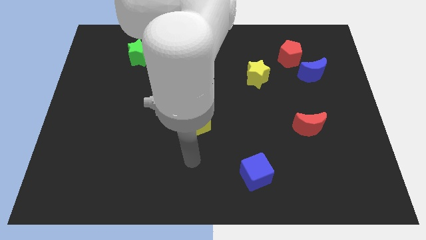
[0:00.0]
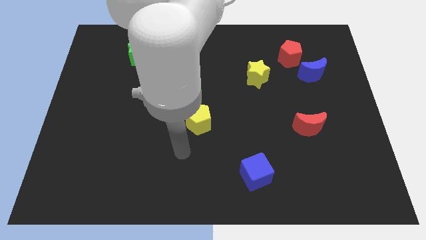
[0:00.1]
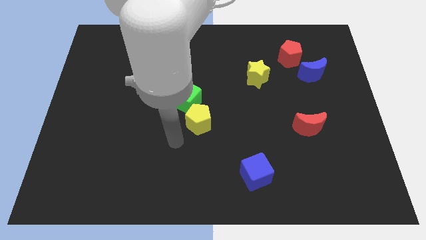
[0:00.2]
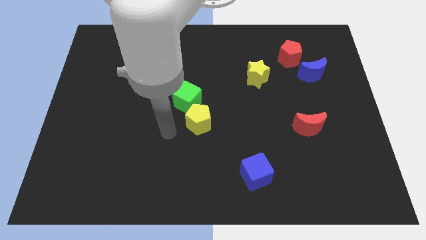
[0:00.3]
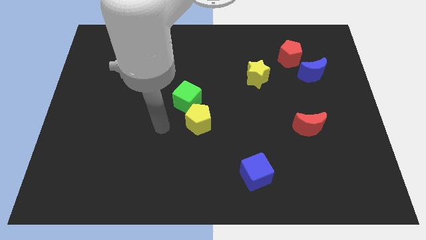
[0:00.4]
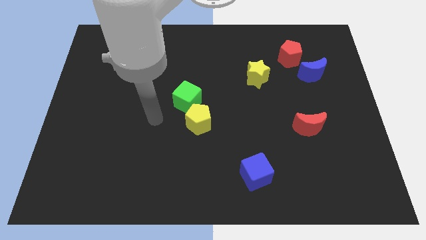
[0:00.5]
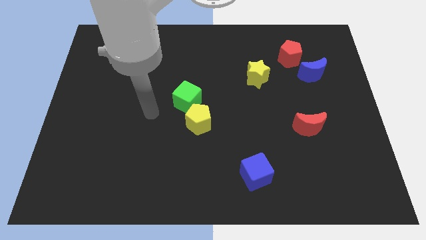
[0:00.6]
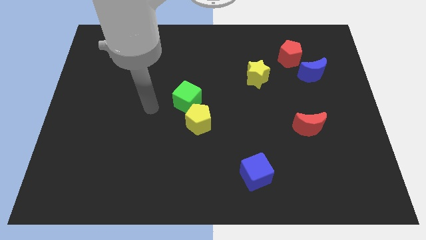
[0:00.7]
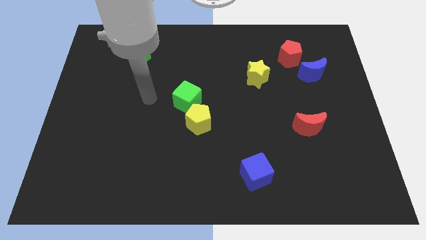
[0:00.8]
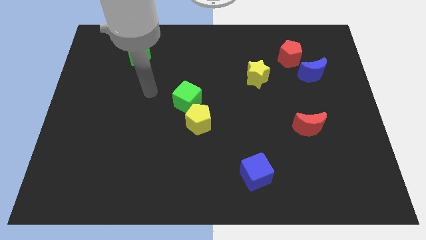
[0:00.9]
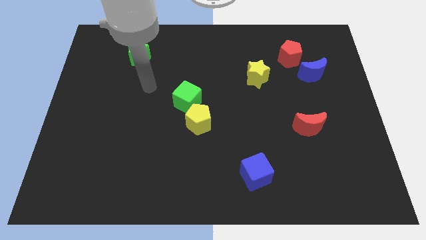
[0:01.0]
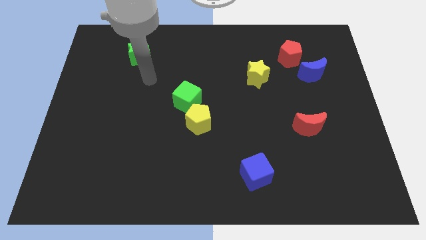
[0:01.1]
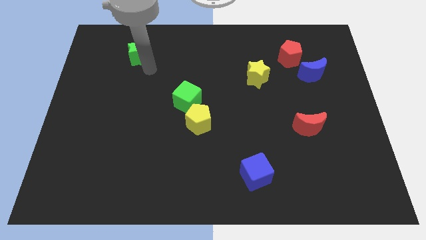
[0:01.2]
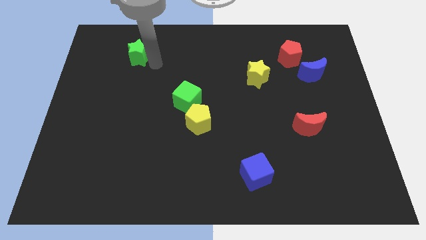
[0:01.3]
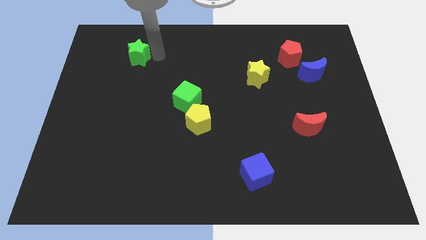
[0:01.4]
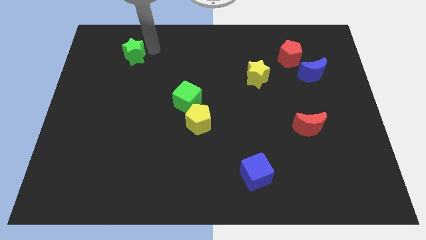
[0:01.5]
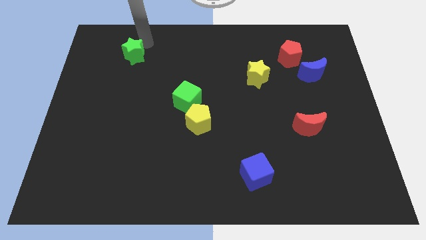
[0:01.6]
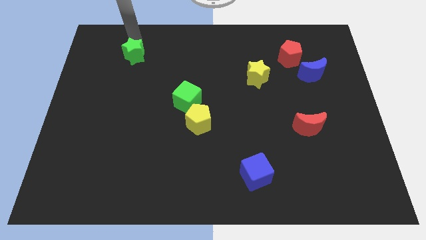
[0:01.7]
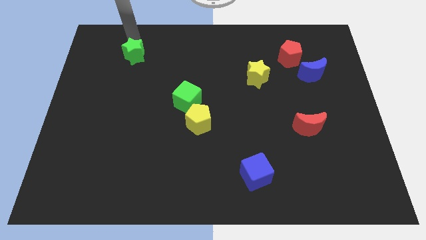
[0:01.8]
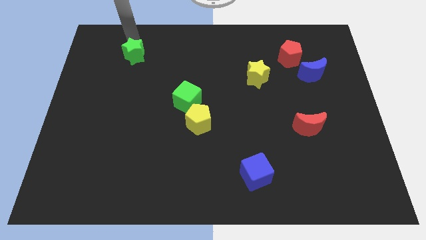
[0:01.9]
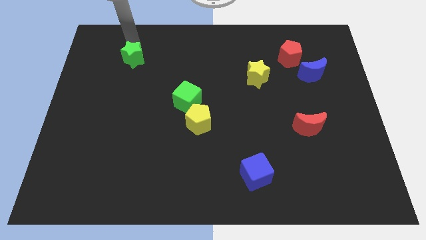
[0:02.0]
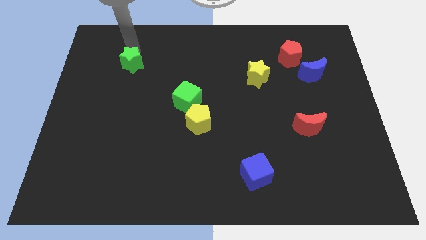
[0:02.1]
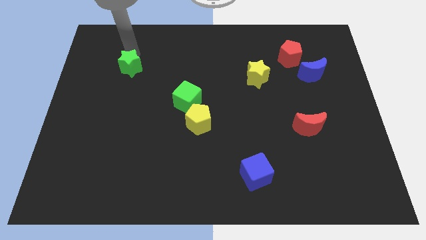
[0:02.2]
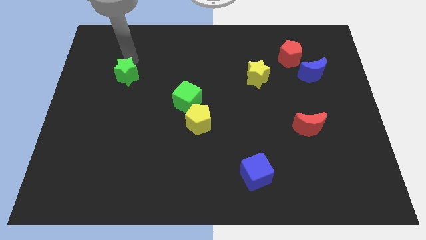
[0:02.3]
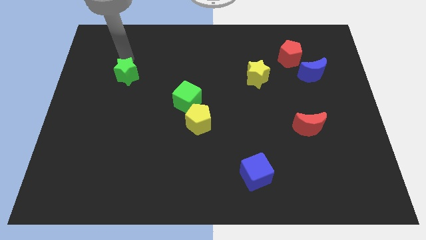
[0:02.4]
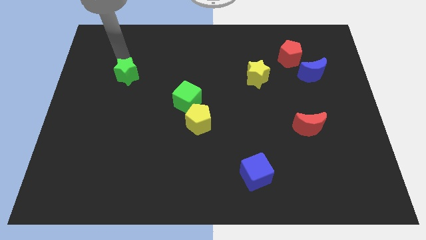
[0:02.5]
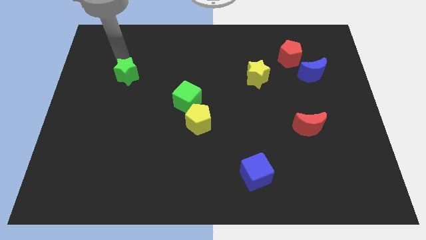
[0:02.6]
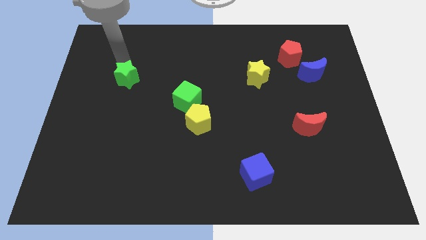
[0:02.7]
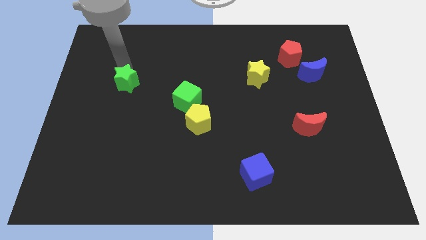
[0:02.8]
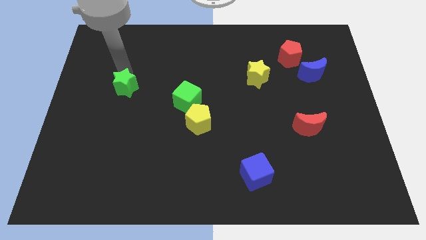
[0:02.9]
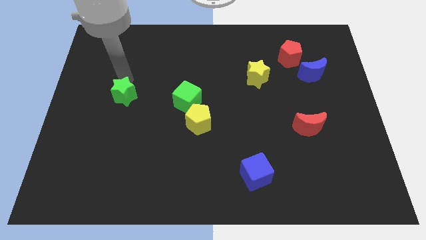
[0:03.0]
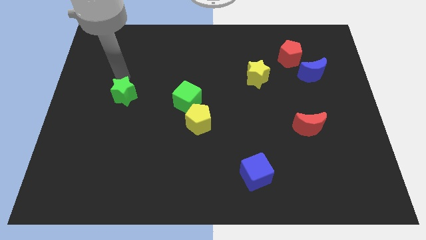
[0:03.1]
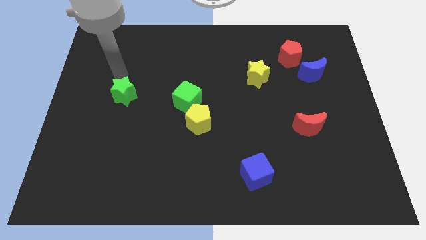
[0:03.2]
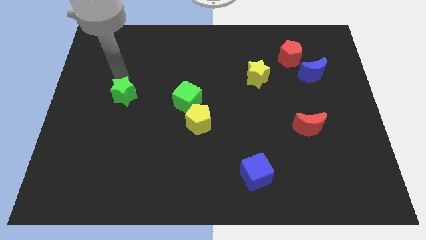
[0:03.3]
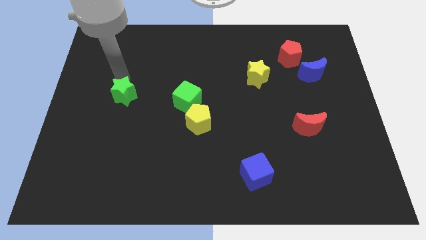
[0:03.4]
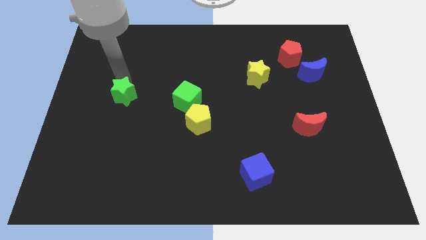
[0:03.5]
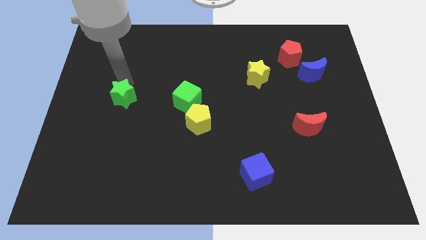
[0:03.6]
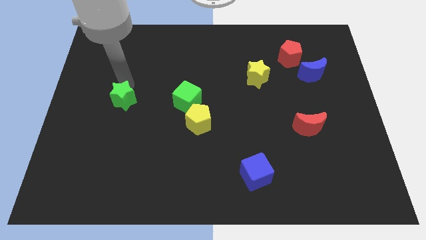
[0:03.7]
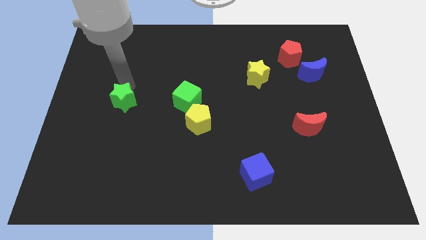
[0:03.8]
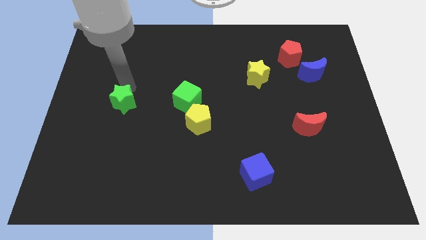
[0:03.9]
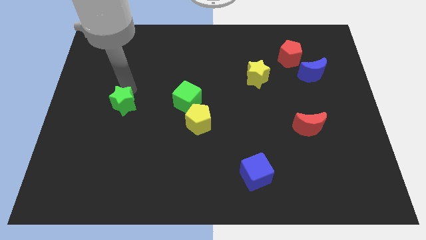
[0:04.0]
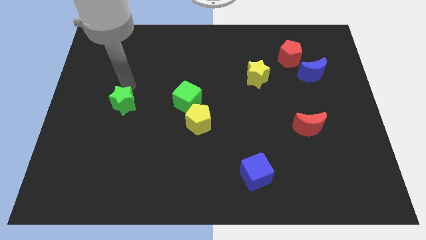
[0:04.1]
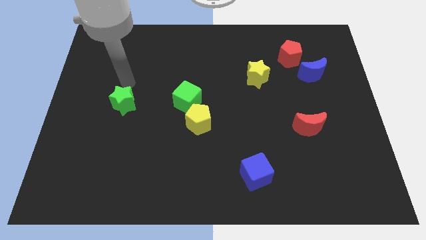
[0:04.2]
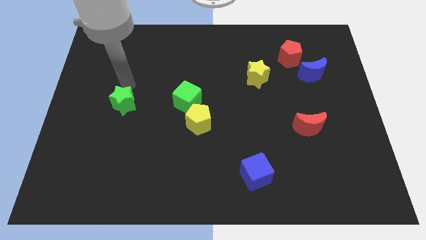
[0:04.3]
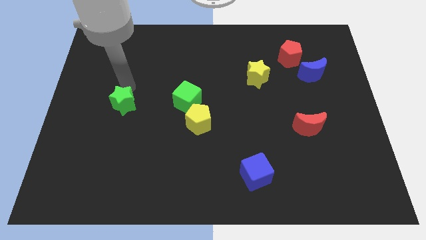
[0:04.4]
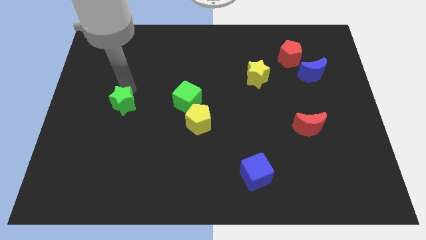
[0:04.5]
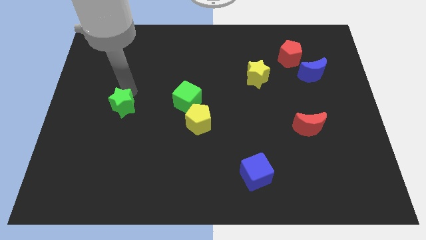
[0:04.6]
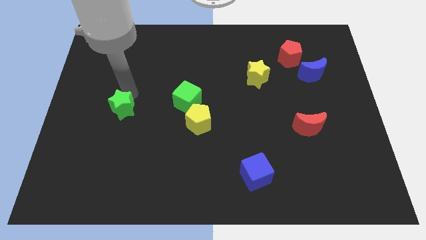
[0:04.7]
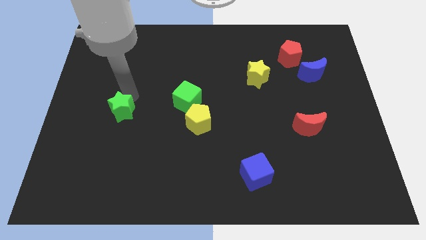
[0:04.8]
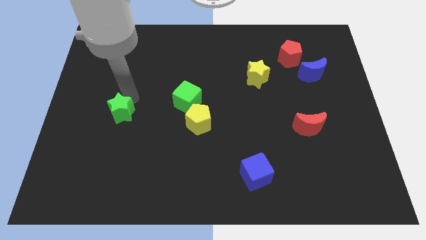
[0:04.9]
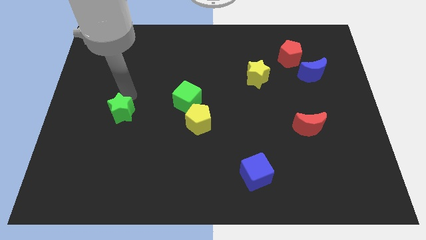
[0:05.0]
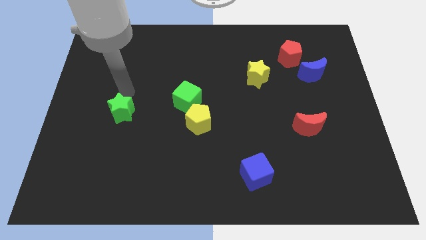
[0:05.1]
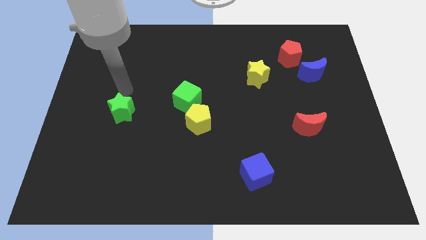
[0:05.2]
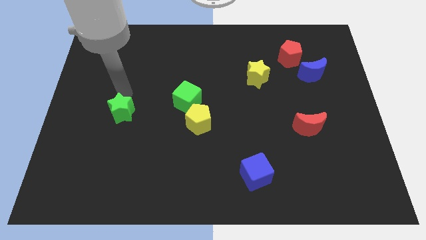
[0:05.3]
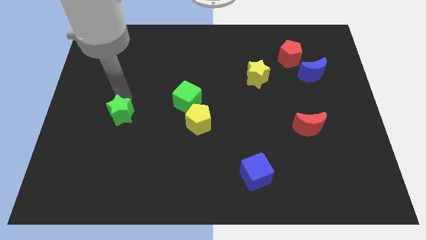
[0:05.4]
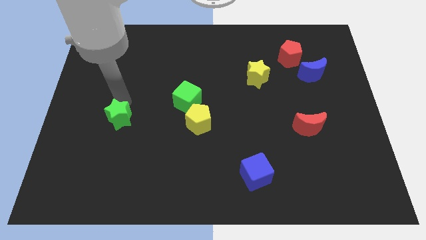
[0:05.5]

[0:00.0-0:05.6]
move the green star downwards

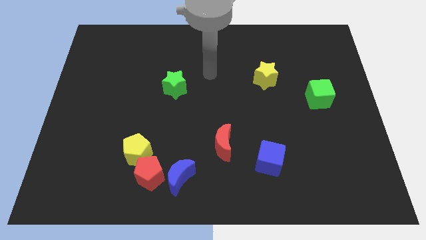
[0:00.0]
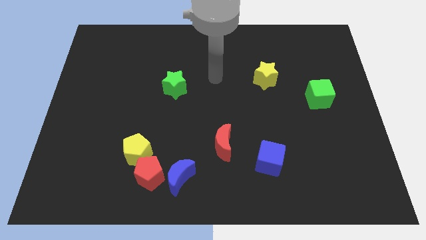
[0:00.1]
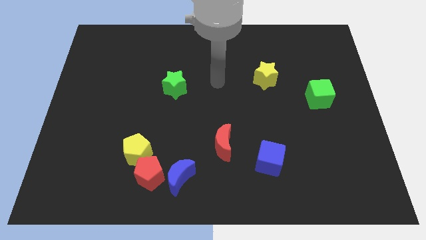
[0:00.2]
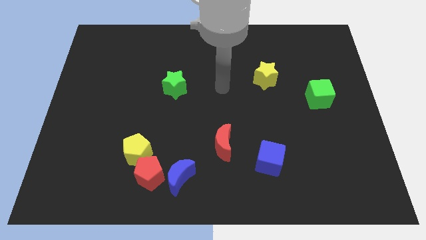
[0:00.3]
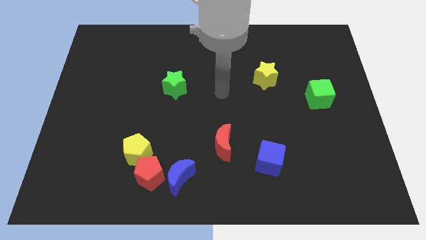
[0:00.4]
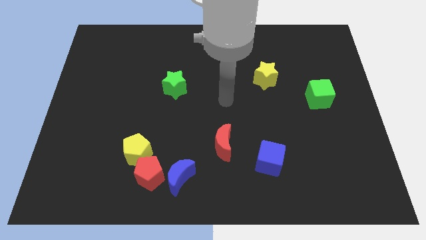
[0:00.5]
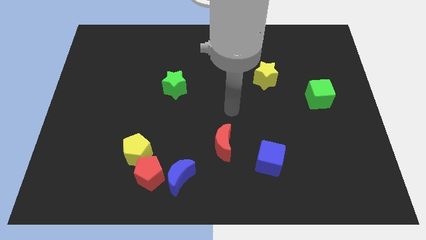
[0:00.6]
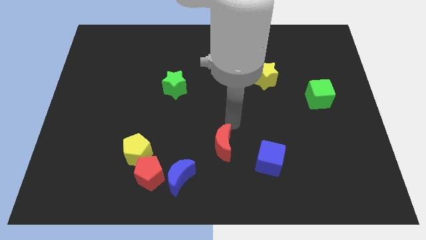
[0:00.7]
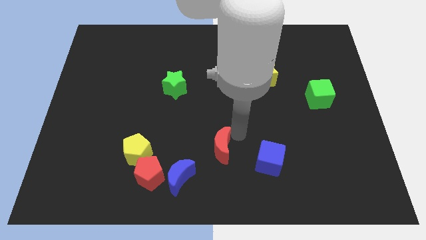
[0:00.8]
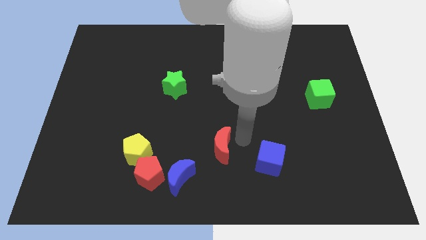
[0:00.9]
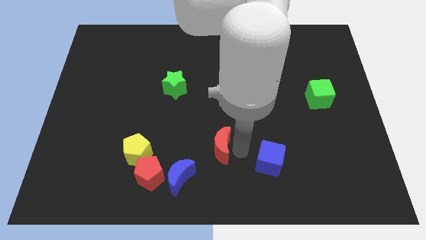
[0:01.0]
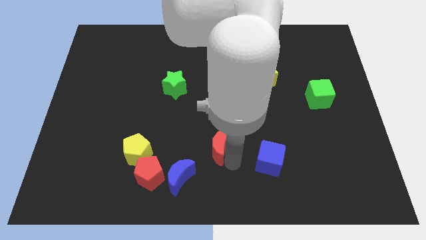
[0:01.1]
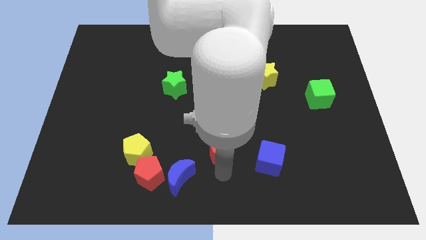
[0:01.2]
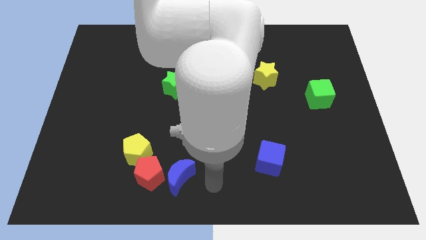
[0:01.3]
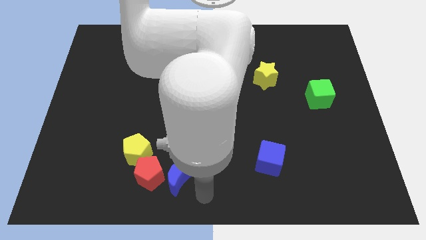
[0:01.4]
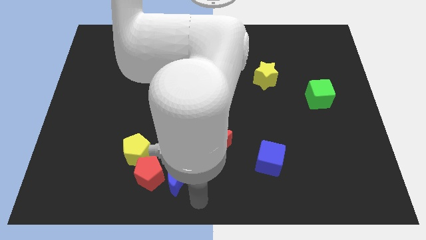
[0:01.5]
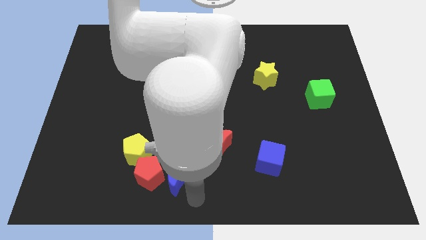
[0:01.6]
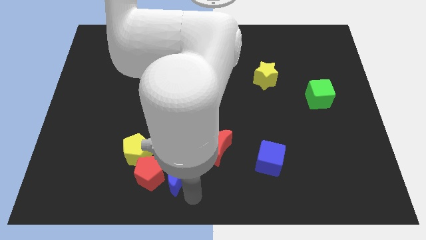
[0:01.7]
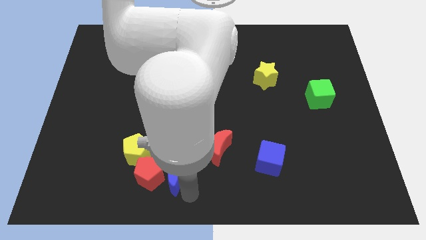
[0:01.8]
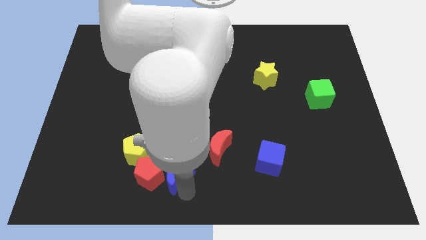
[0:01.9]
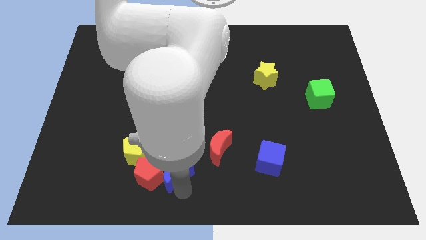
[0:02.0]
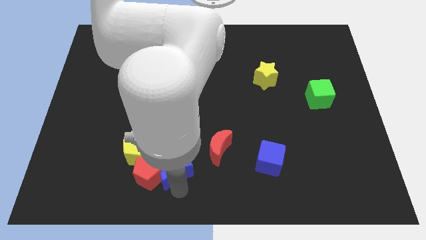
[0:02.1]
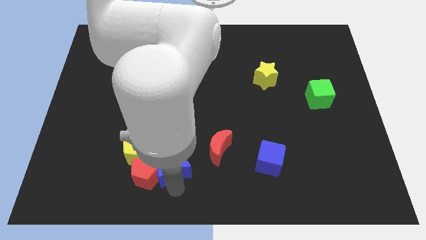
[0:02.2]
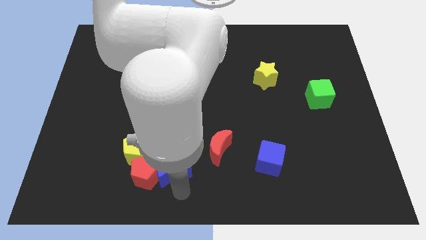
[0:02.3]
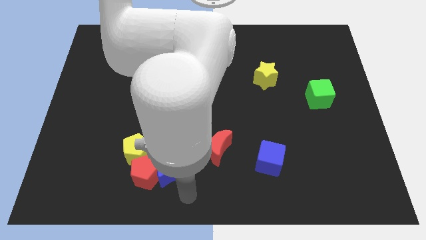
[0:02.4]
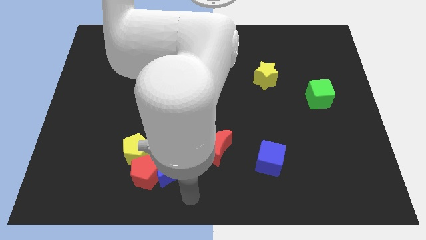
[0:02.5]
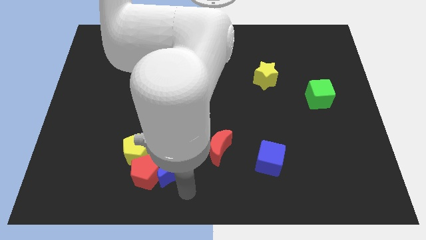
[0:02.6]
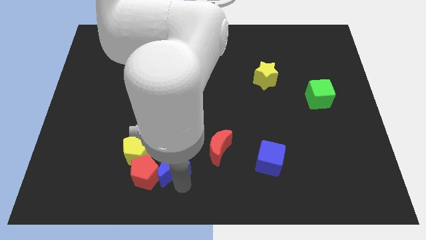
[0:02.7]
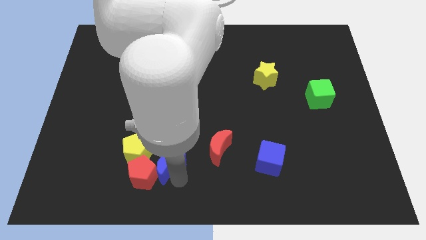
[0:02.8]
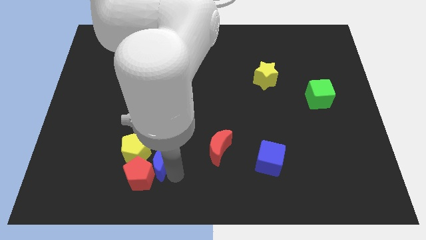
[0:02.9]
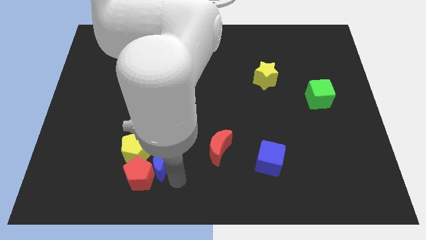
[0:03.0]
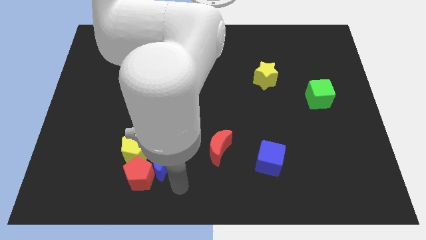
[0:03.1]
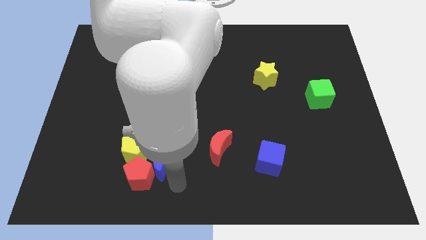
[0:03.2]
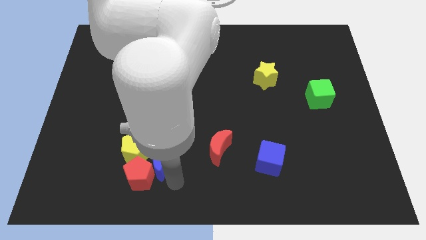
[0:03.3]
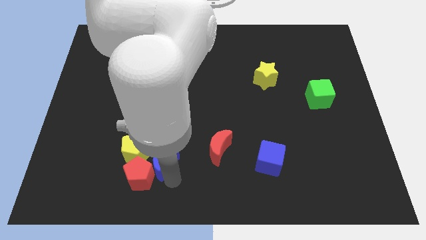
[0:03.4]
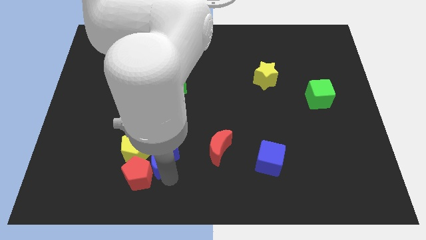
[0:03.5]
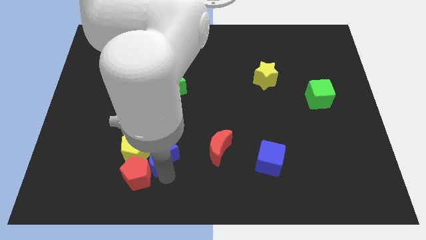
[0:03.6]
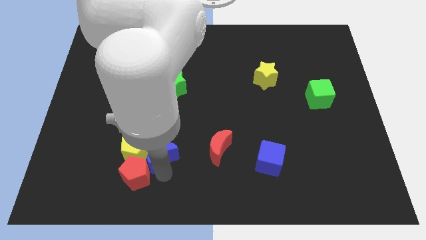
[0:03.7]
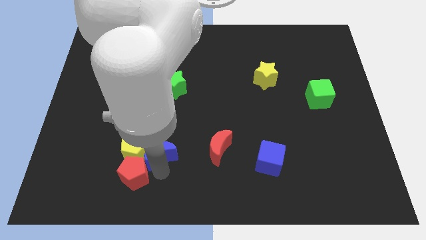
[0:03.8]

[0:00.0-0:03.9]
slightly push the blue moon upwards and to the left diagonally
